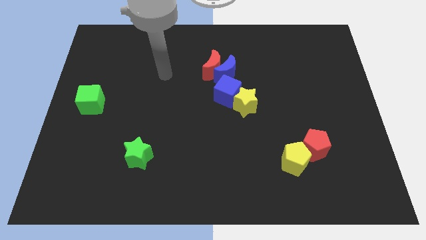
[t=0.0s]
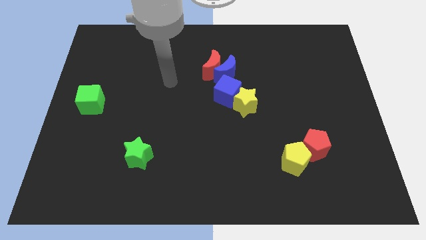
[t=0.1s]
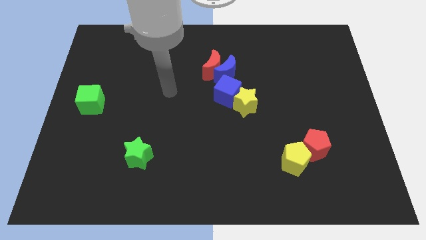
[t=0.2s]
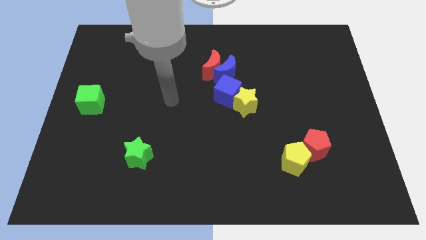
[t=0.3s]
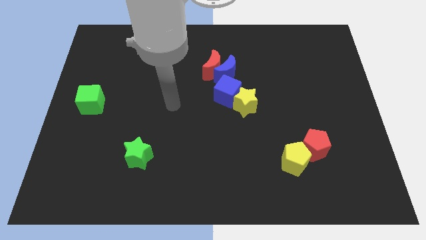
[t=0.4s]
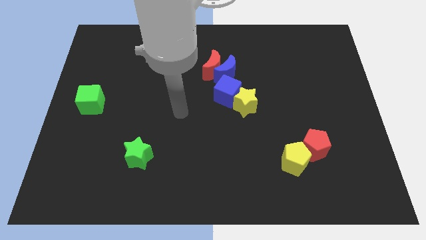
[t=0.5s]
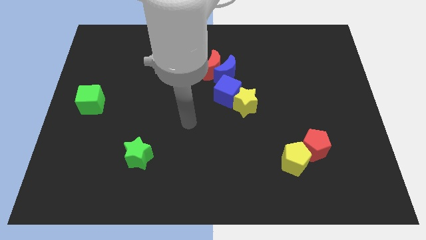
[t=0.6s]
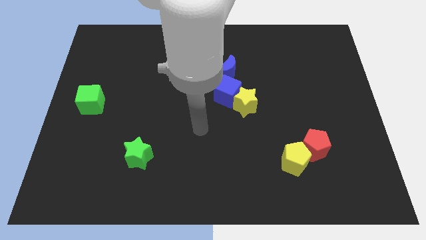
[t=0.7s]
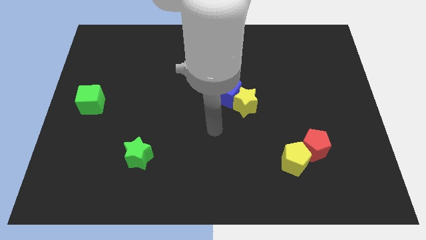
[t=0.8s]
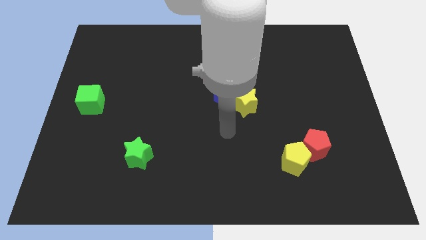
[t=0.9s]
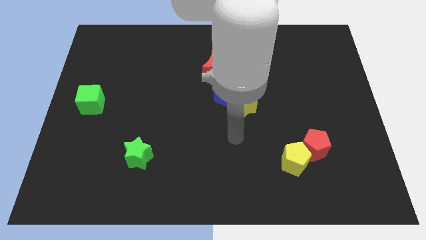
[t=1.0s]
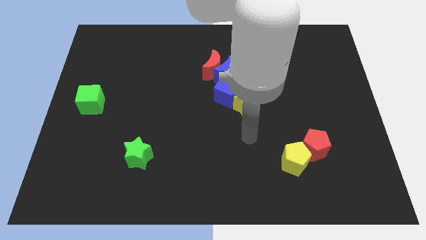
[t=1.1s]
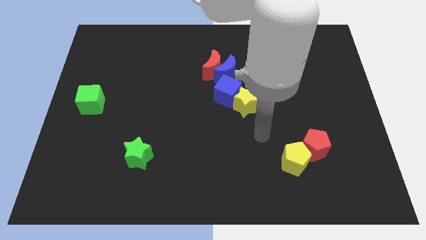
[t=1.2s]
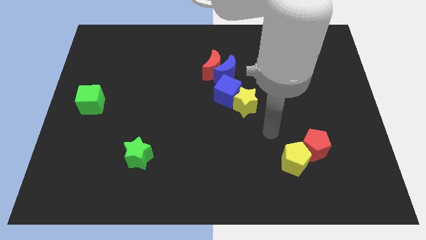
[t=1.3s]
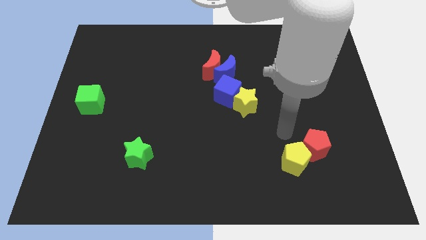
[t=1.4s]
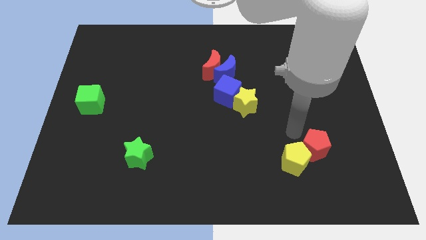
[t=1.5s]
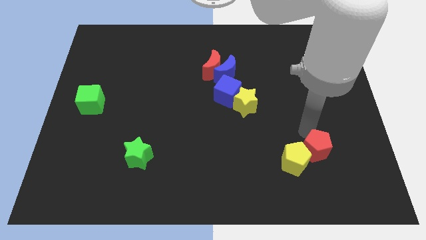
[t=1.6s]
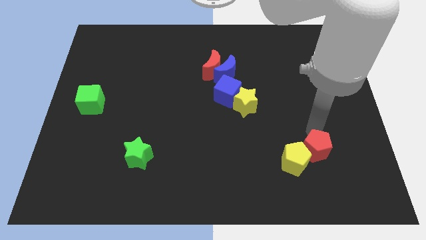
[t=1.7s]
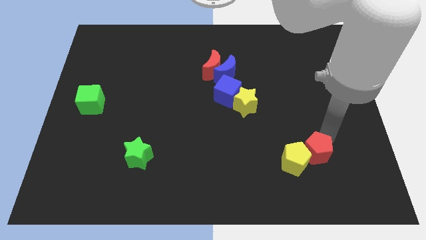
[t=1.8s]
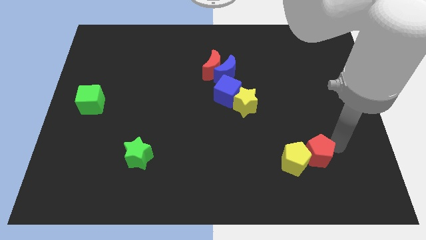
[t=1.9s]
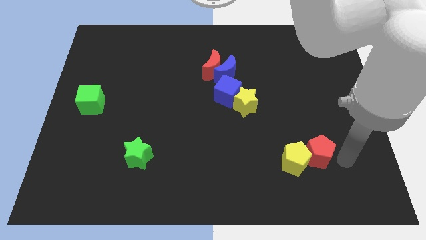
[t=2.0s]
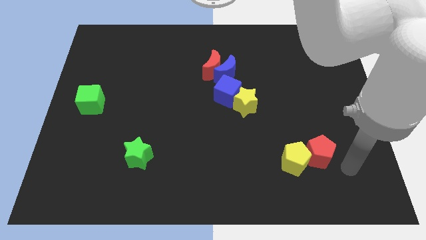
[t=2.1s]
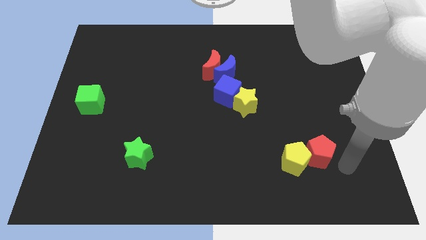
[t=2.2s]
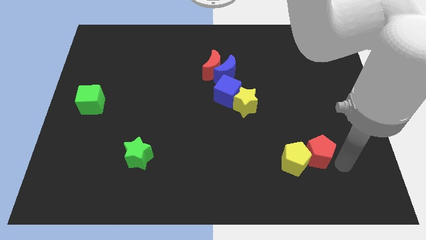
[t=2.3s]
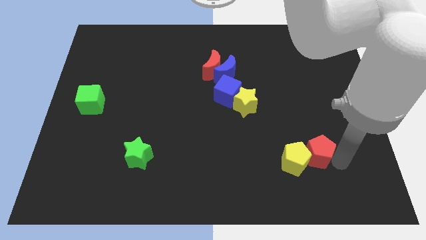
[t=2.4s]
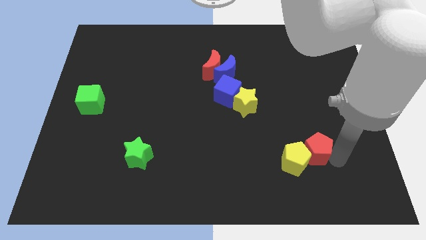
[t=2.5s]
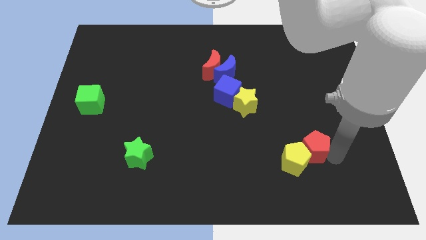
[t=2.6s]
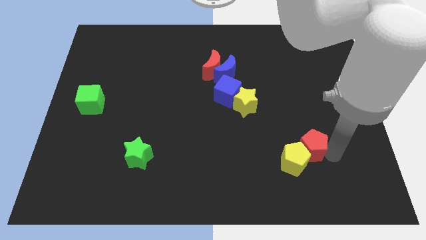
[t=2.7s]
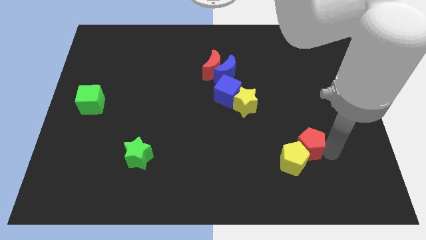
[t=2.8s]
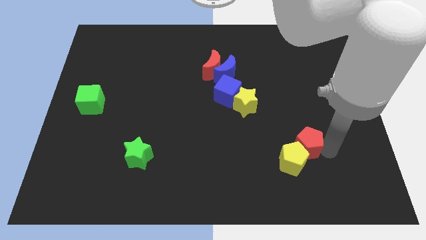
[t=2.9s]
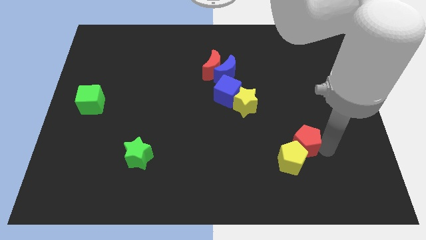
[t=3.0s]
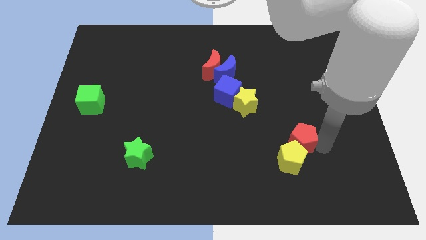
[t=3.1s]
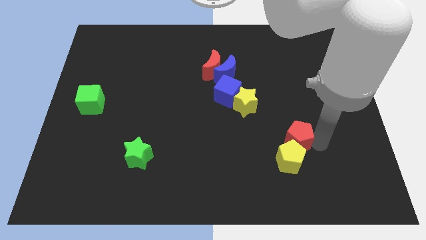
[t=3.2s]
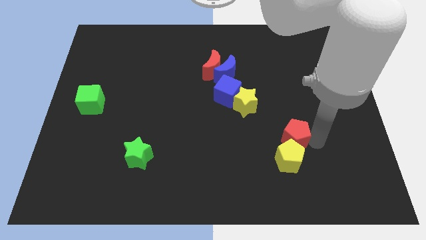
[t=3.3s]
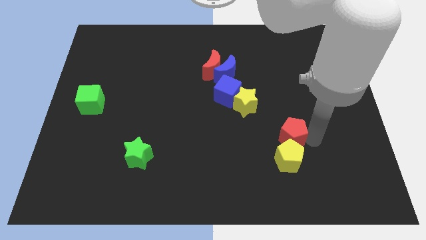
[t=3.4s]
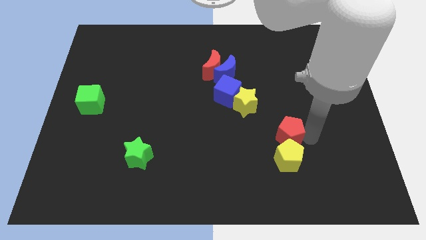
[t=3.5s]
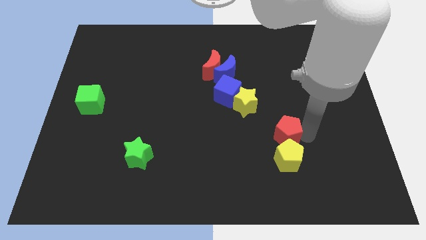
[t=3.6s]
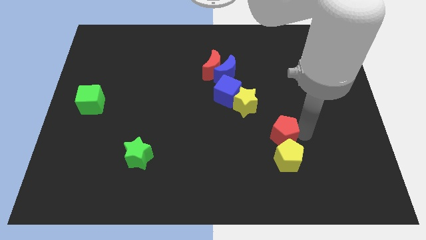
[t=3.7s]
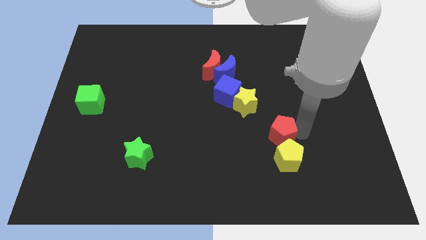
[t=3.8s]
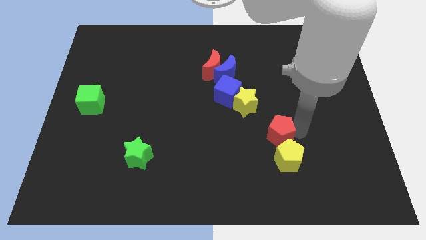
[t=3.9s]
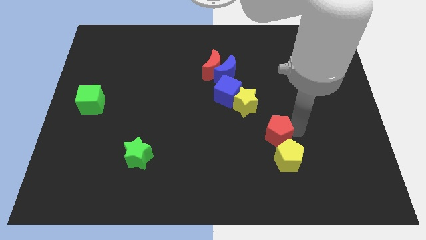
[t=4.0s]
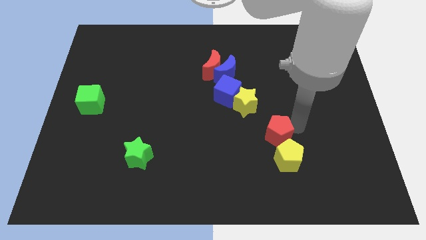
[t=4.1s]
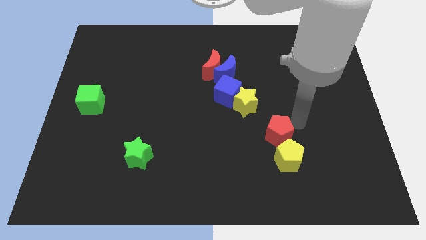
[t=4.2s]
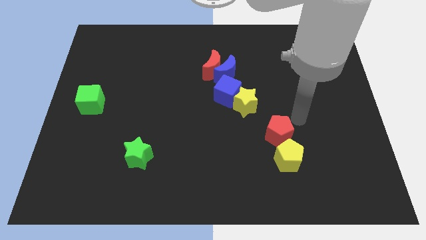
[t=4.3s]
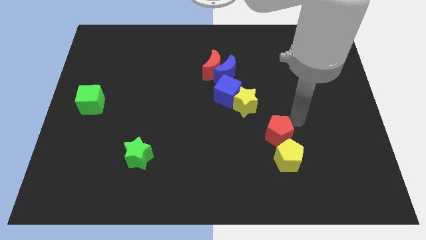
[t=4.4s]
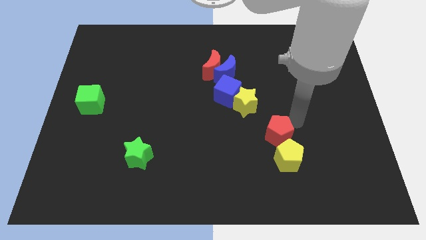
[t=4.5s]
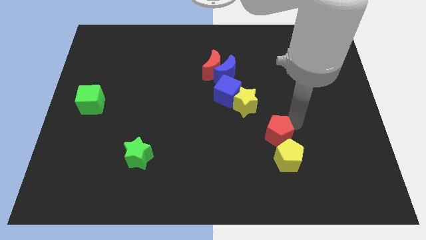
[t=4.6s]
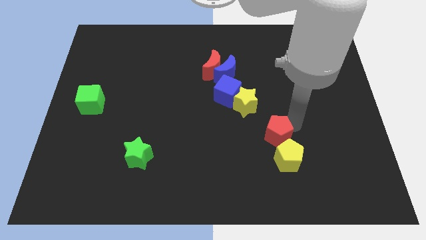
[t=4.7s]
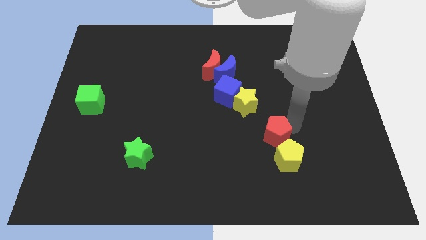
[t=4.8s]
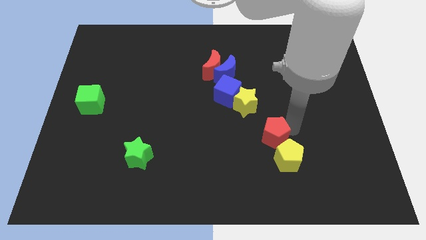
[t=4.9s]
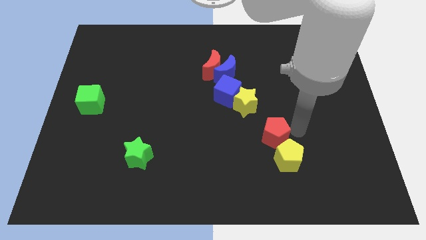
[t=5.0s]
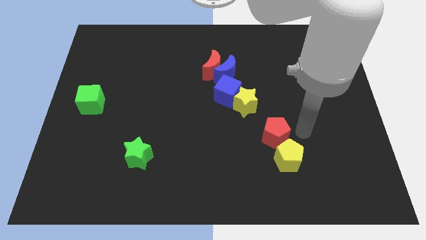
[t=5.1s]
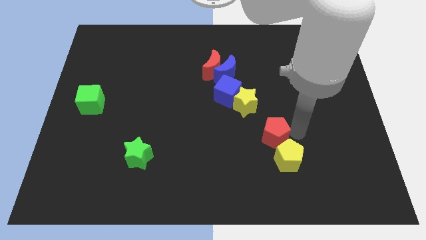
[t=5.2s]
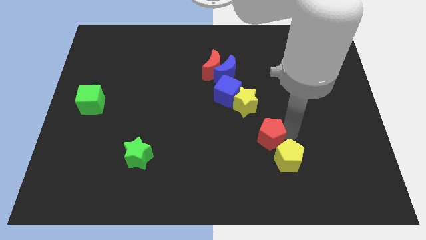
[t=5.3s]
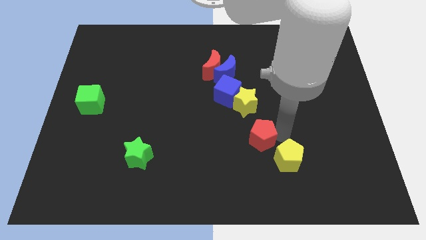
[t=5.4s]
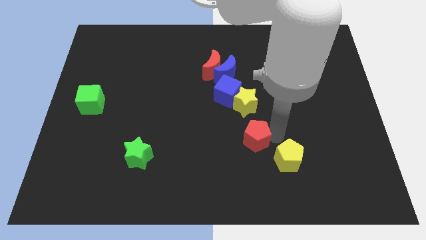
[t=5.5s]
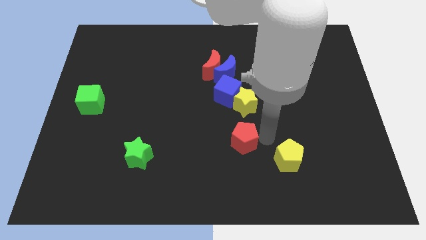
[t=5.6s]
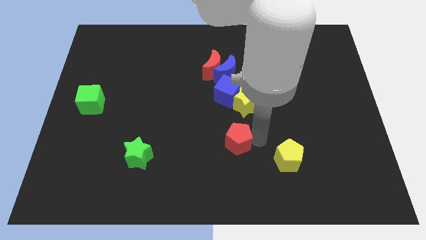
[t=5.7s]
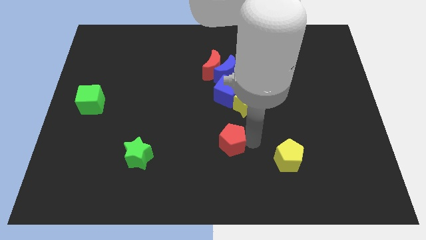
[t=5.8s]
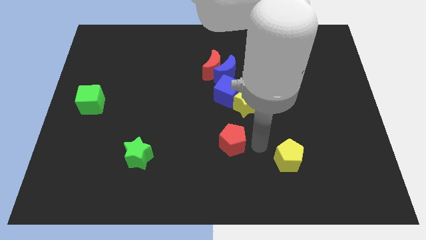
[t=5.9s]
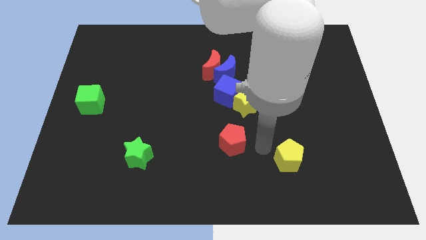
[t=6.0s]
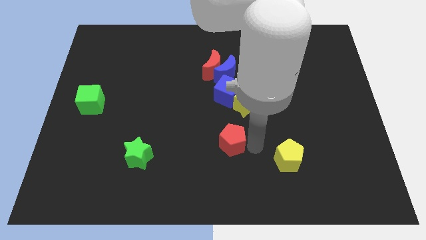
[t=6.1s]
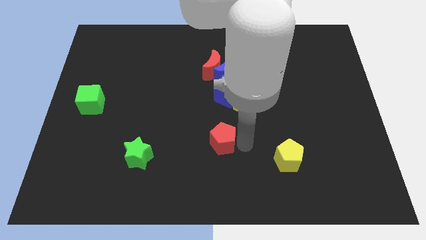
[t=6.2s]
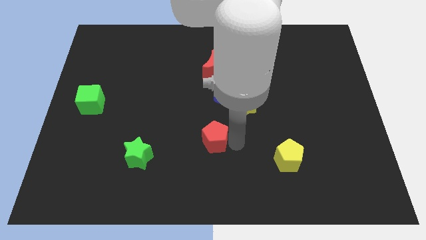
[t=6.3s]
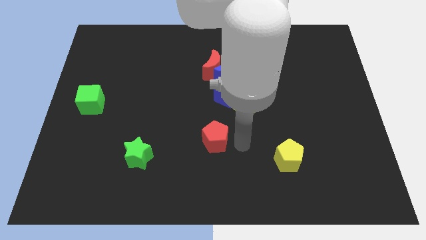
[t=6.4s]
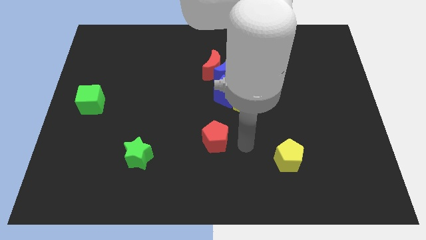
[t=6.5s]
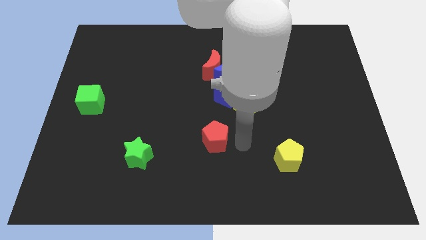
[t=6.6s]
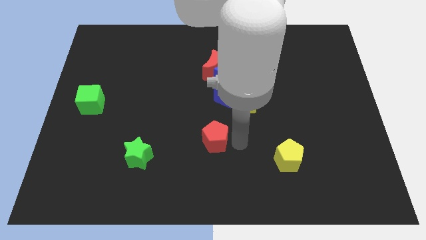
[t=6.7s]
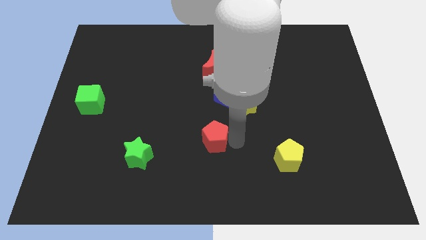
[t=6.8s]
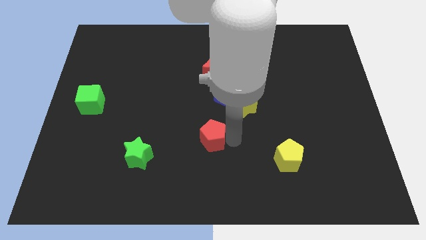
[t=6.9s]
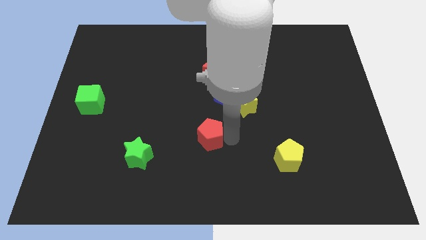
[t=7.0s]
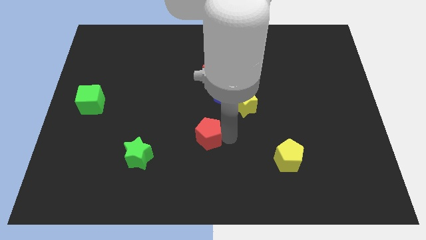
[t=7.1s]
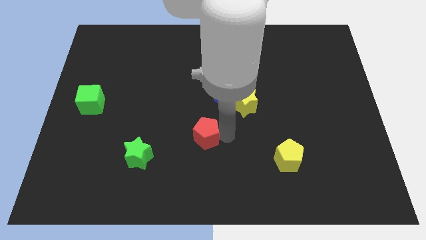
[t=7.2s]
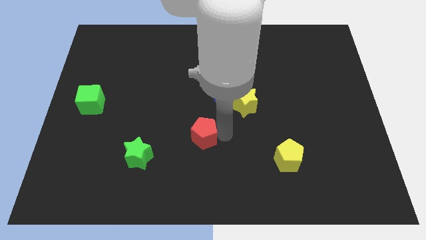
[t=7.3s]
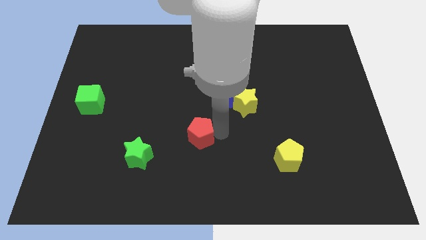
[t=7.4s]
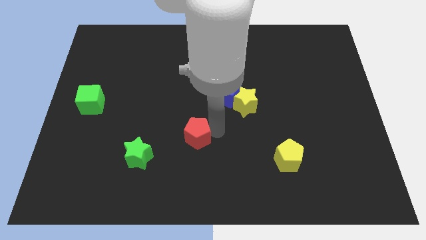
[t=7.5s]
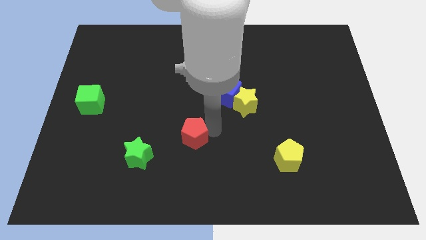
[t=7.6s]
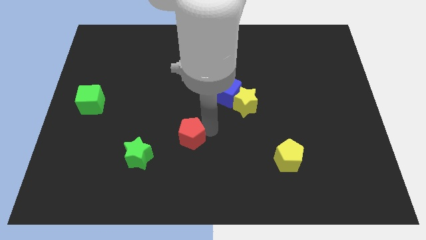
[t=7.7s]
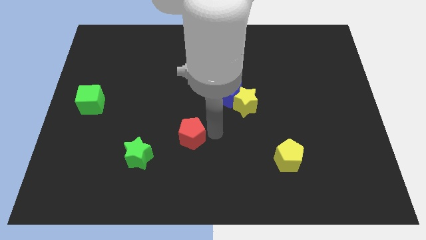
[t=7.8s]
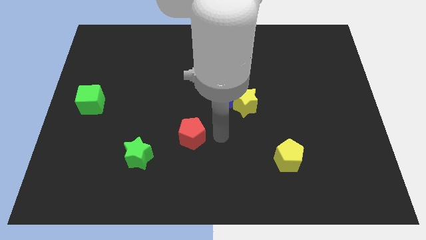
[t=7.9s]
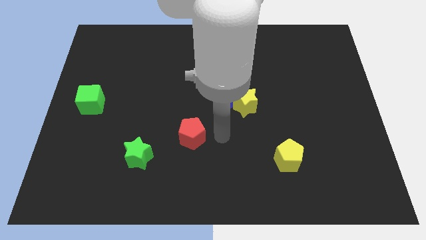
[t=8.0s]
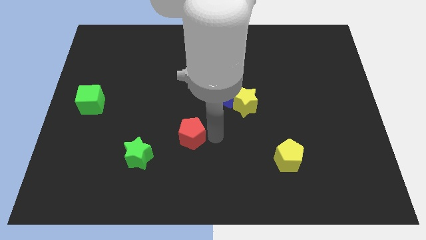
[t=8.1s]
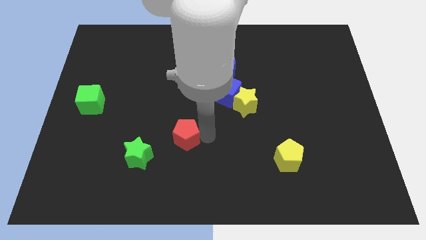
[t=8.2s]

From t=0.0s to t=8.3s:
slide the red pentagon diagonally up and to the right of the green star
